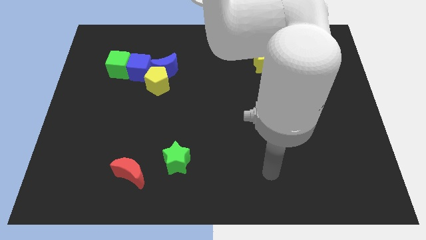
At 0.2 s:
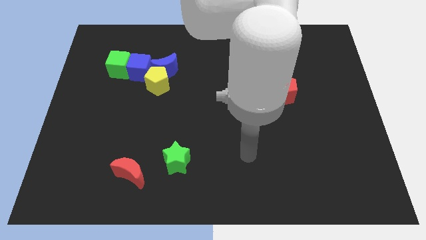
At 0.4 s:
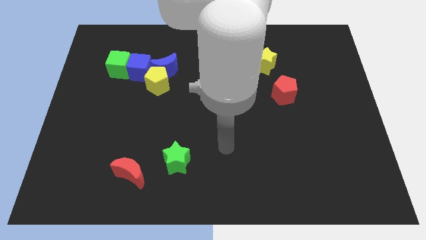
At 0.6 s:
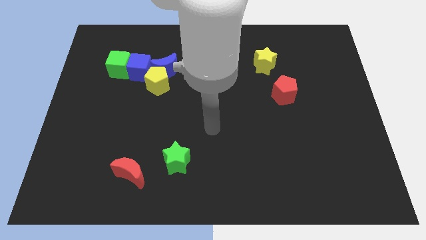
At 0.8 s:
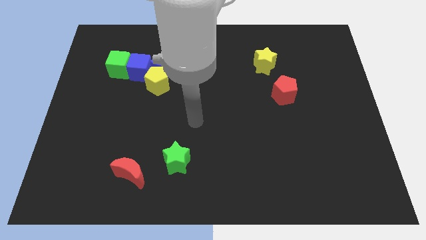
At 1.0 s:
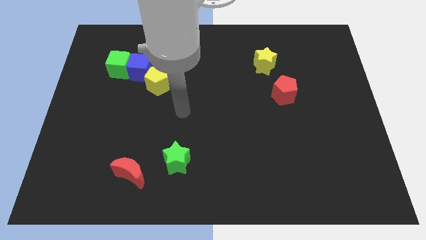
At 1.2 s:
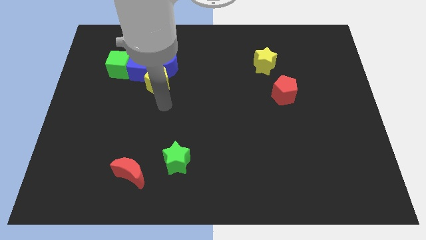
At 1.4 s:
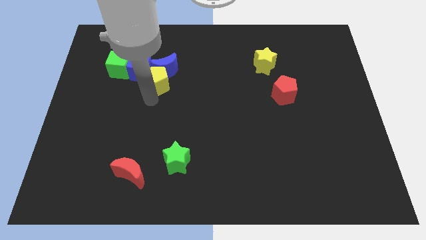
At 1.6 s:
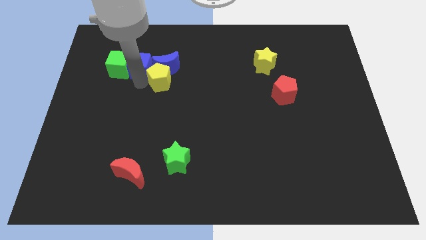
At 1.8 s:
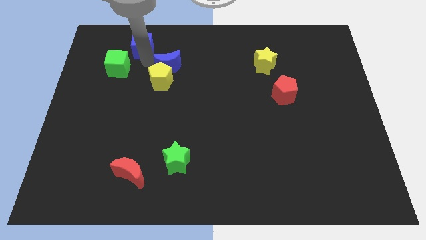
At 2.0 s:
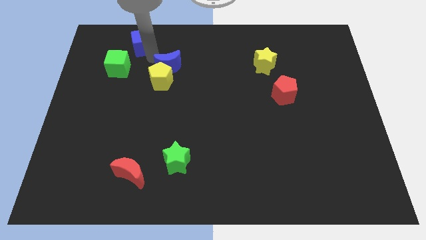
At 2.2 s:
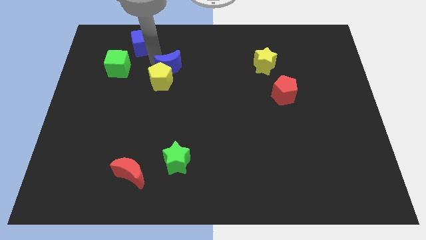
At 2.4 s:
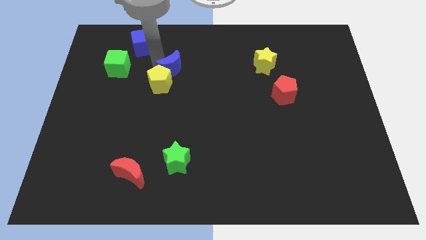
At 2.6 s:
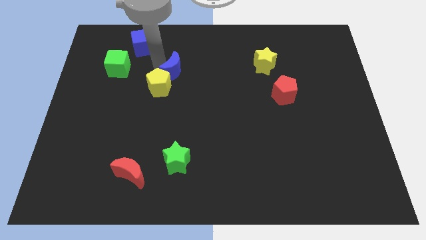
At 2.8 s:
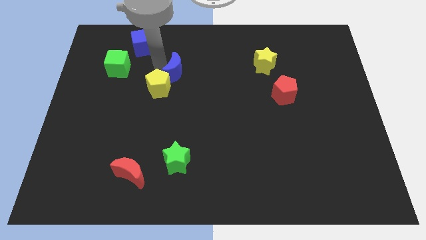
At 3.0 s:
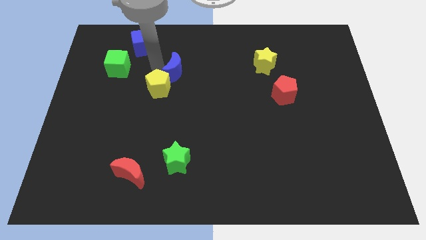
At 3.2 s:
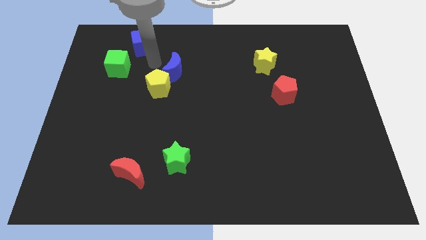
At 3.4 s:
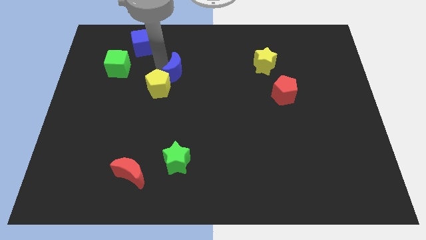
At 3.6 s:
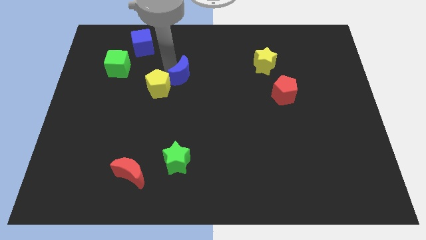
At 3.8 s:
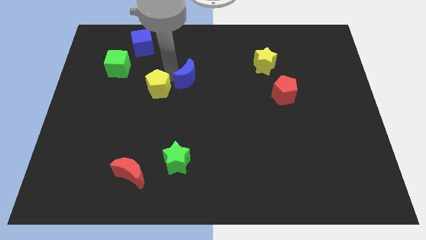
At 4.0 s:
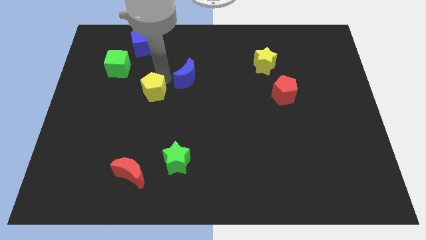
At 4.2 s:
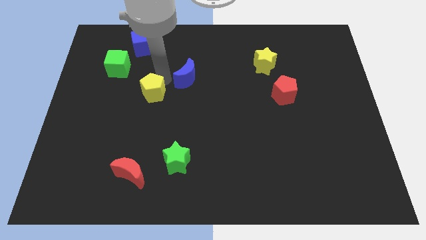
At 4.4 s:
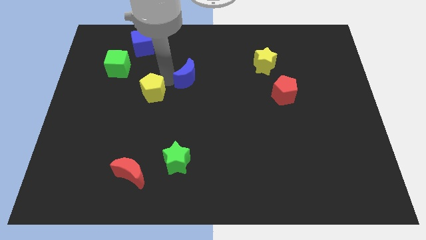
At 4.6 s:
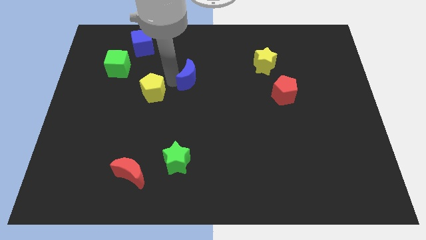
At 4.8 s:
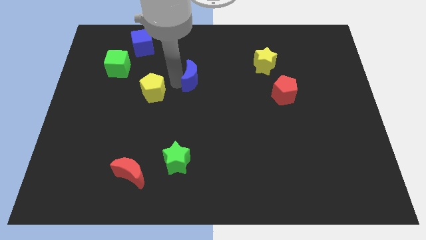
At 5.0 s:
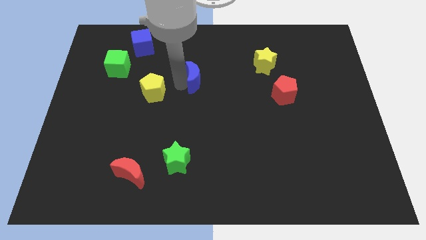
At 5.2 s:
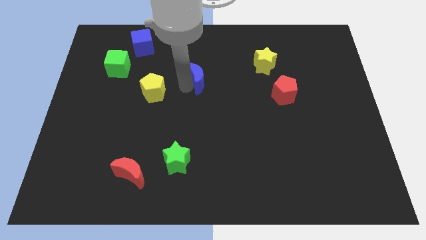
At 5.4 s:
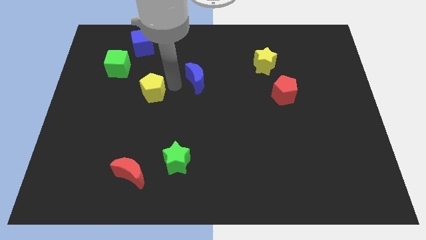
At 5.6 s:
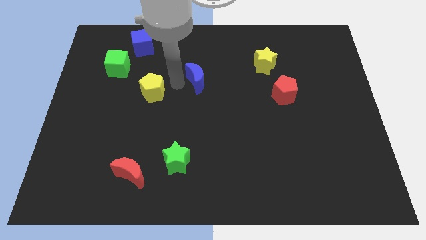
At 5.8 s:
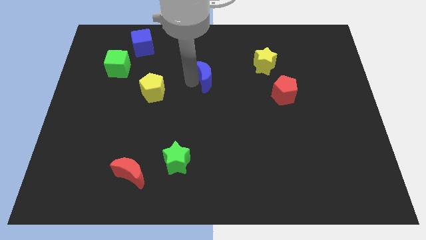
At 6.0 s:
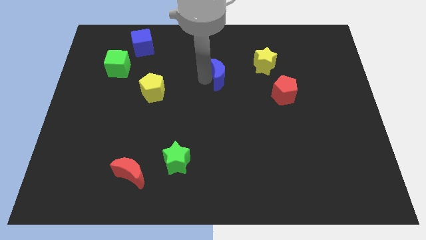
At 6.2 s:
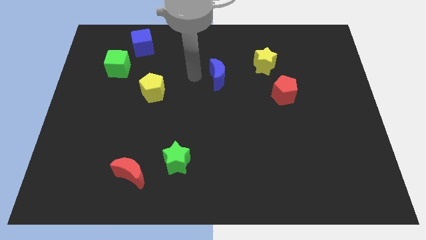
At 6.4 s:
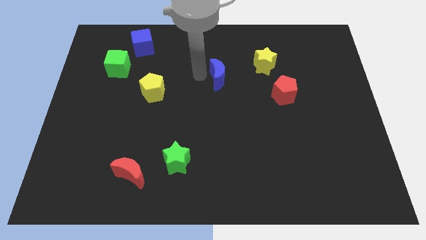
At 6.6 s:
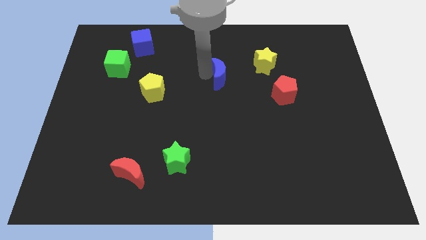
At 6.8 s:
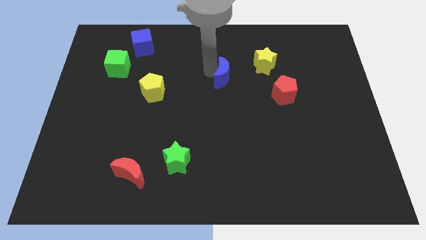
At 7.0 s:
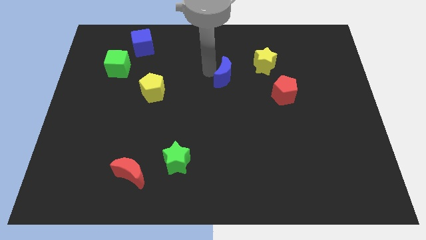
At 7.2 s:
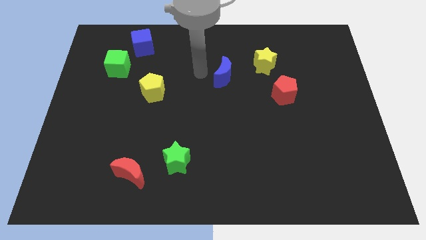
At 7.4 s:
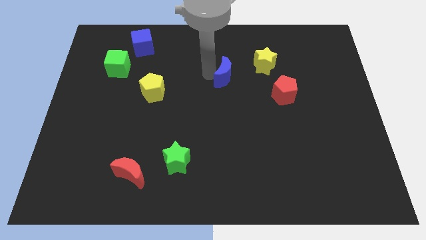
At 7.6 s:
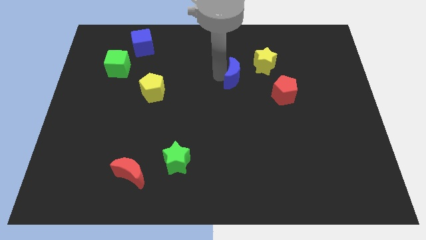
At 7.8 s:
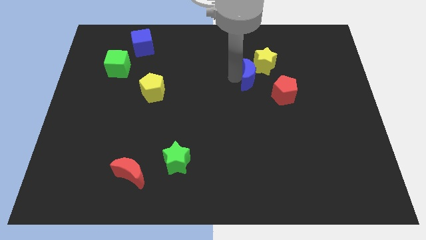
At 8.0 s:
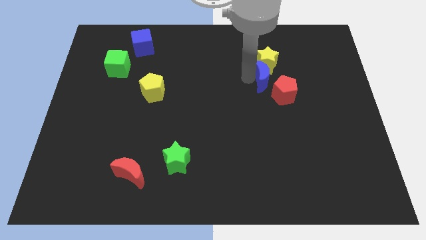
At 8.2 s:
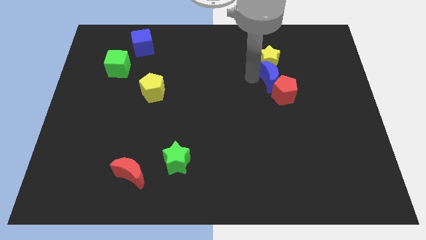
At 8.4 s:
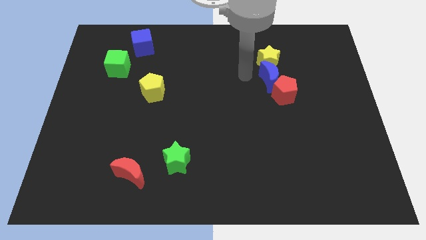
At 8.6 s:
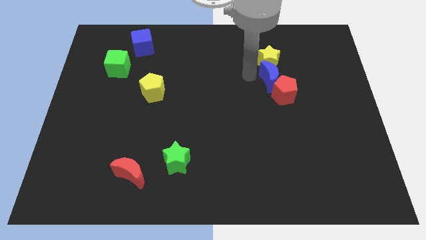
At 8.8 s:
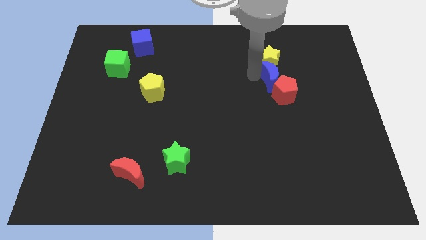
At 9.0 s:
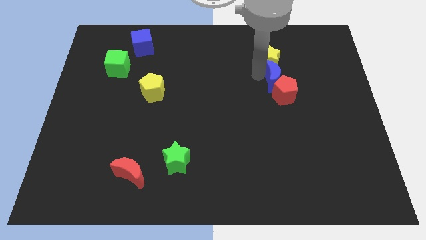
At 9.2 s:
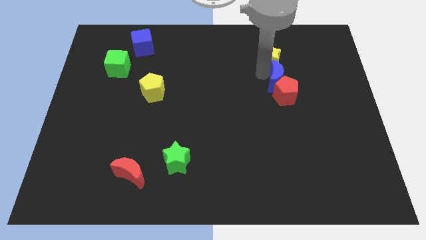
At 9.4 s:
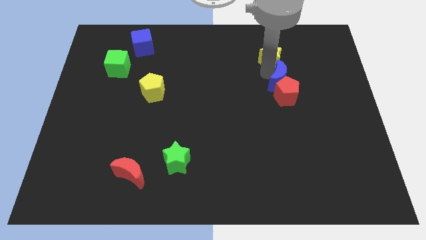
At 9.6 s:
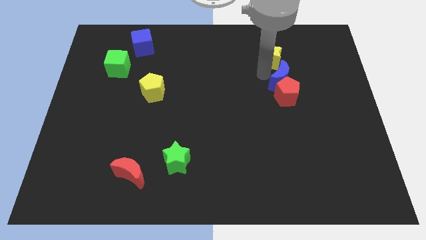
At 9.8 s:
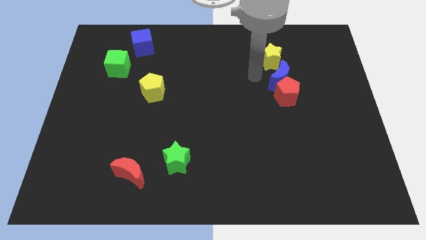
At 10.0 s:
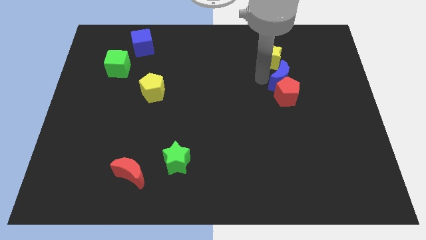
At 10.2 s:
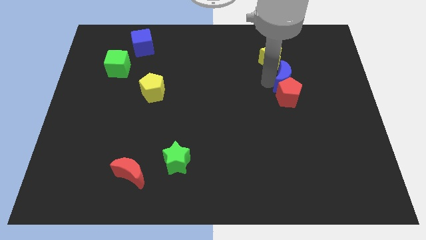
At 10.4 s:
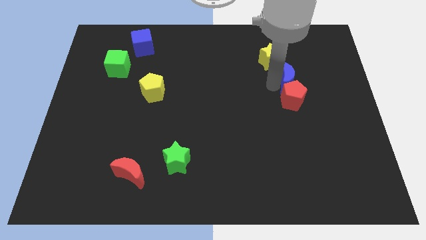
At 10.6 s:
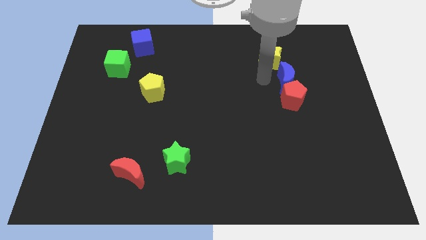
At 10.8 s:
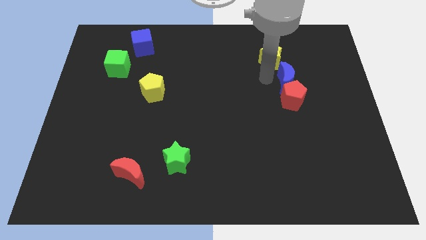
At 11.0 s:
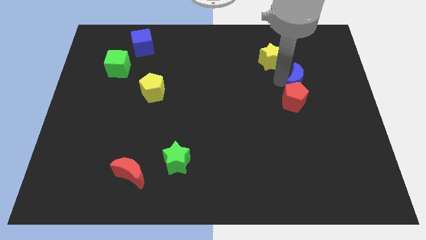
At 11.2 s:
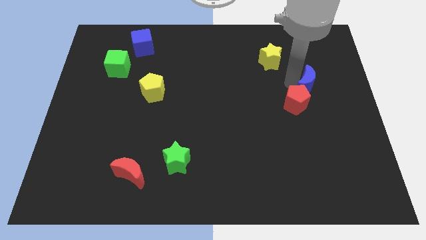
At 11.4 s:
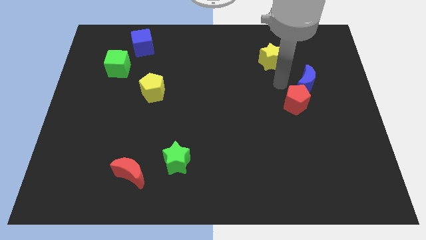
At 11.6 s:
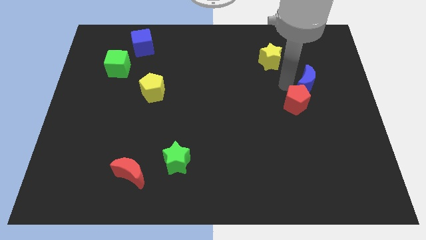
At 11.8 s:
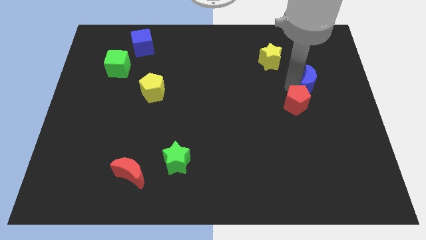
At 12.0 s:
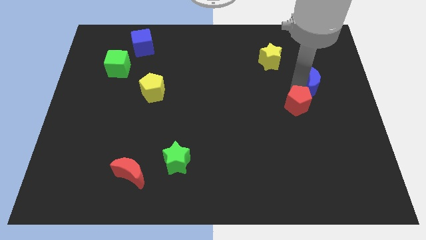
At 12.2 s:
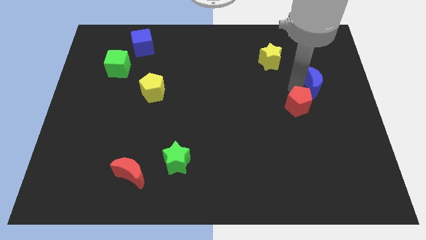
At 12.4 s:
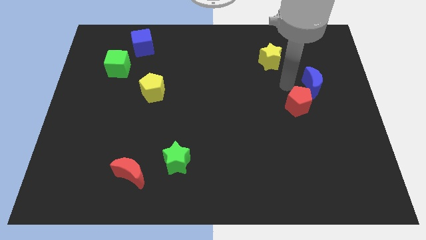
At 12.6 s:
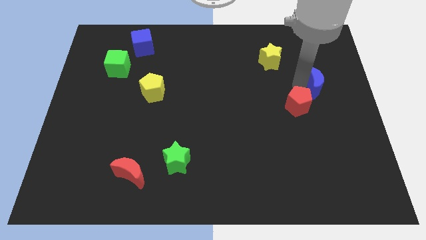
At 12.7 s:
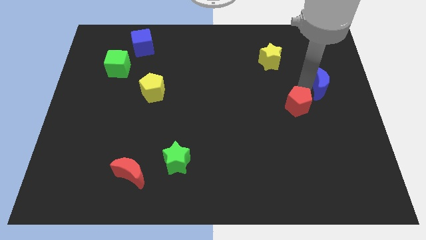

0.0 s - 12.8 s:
slide the blue moon to the right side
